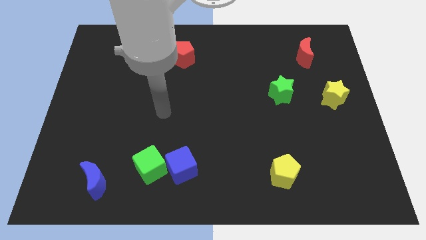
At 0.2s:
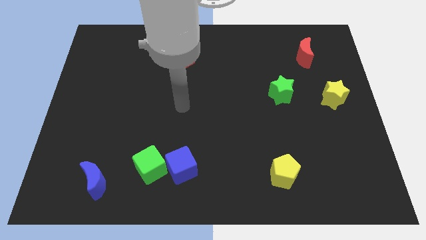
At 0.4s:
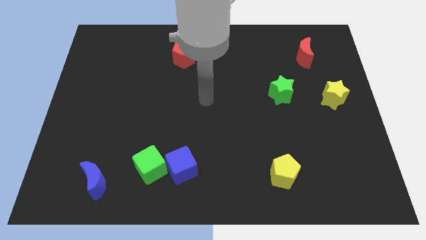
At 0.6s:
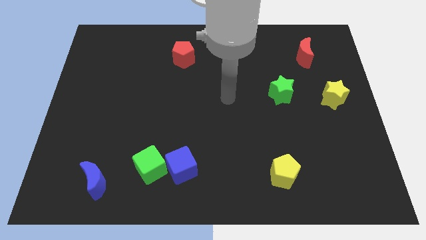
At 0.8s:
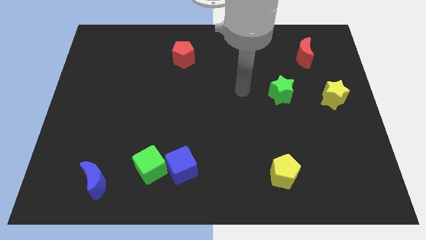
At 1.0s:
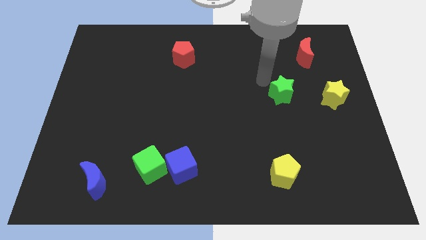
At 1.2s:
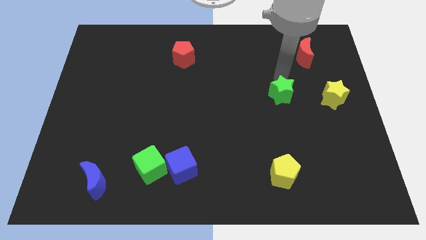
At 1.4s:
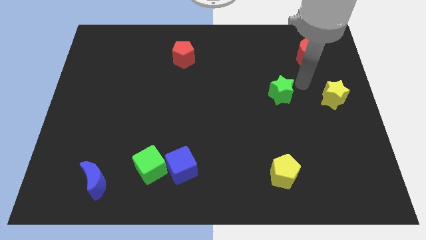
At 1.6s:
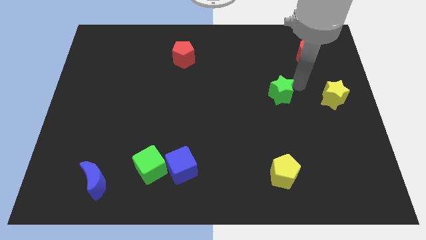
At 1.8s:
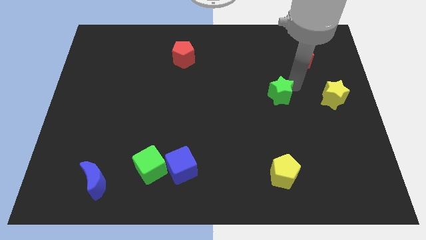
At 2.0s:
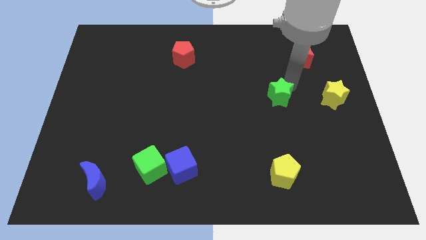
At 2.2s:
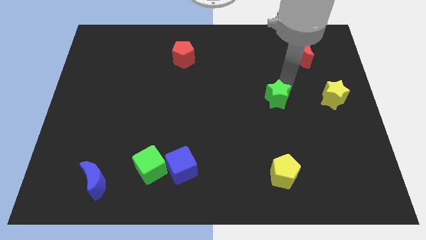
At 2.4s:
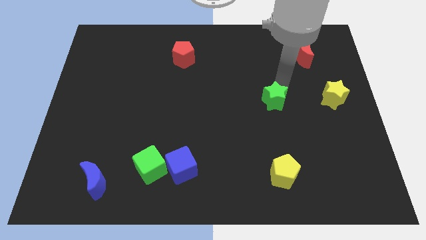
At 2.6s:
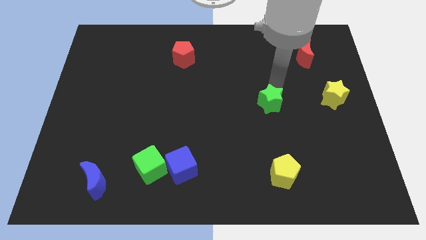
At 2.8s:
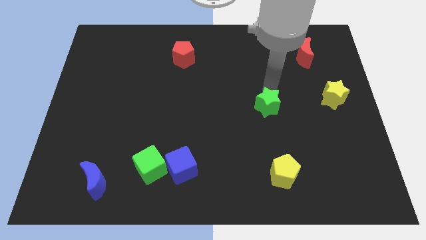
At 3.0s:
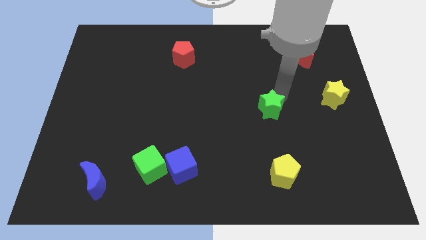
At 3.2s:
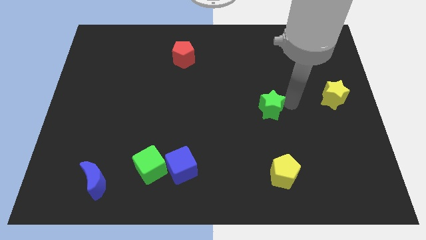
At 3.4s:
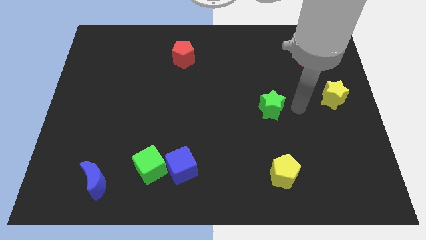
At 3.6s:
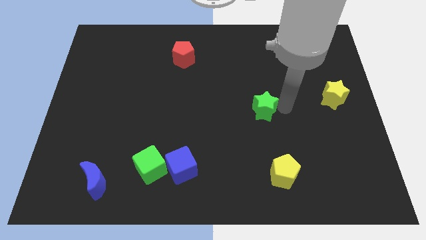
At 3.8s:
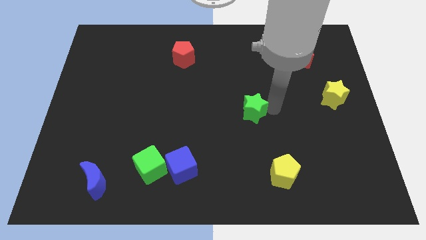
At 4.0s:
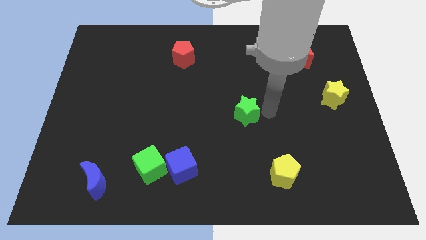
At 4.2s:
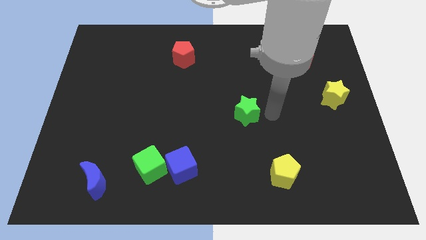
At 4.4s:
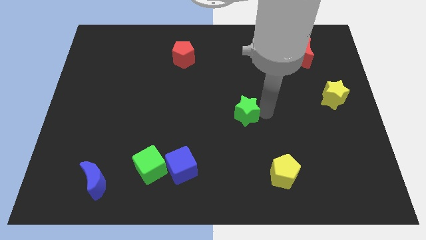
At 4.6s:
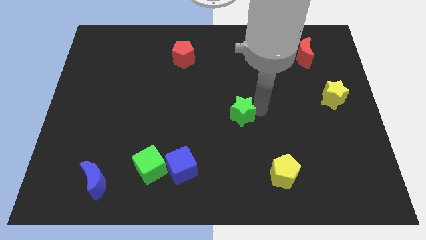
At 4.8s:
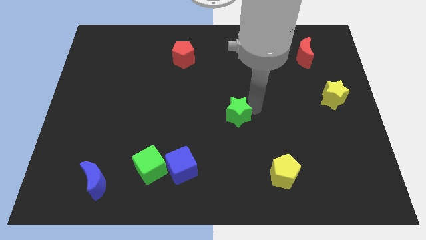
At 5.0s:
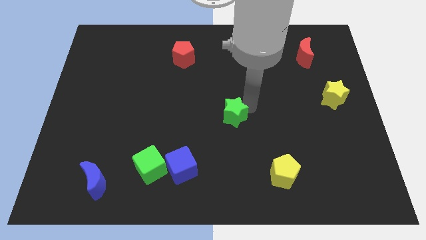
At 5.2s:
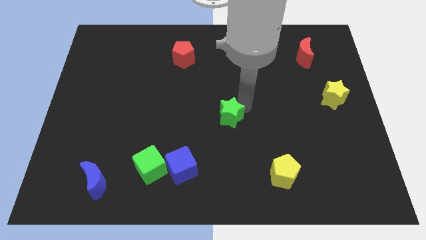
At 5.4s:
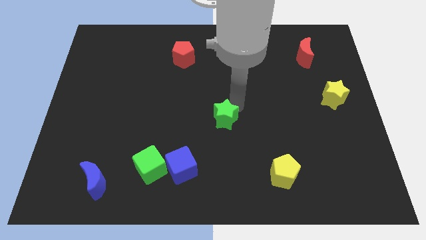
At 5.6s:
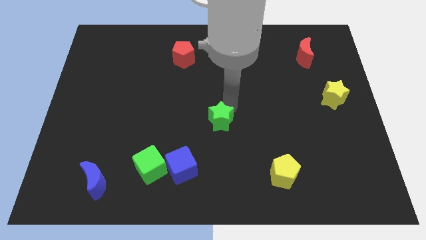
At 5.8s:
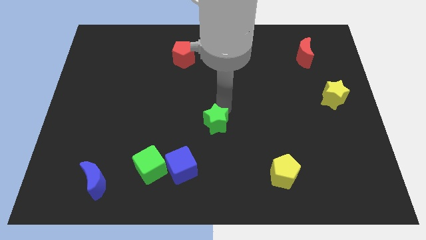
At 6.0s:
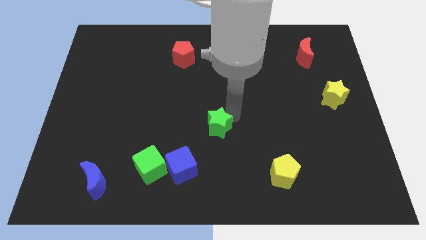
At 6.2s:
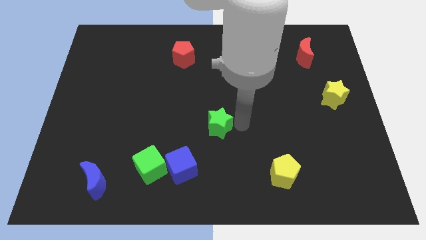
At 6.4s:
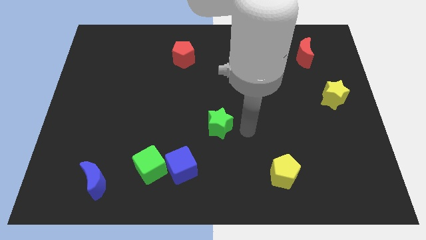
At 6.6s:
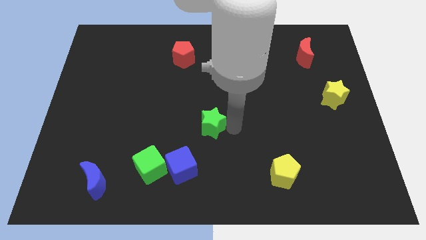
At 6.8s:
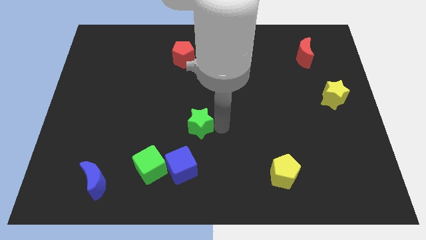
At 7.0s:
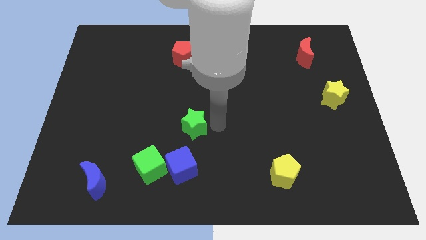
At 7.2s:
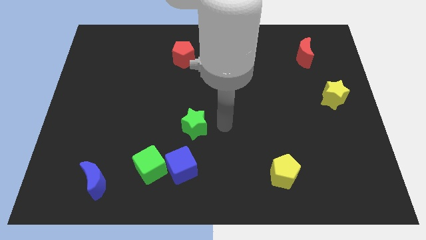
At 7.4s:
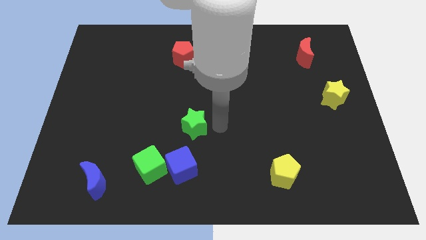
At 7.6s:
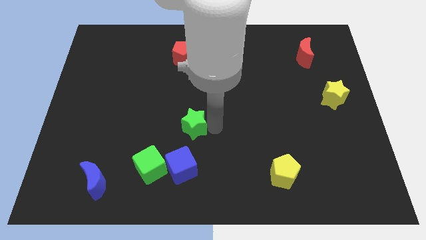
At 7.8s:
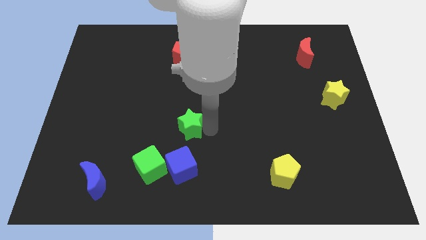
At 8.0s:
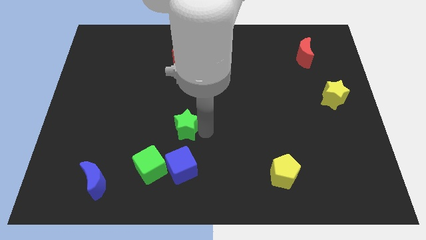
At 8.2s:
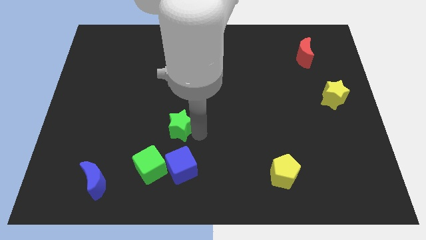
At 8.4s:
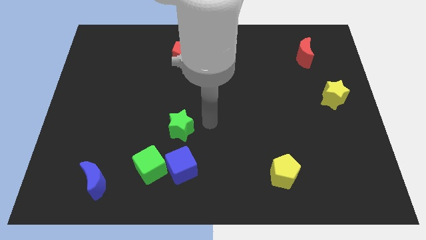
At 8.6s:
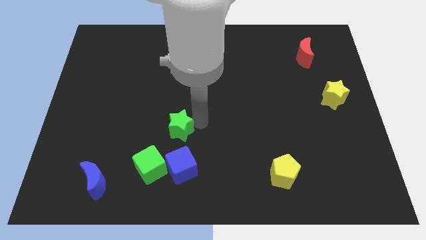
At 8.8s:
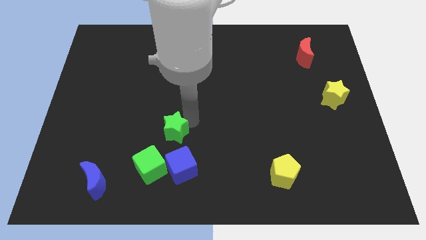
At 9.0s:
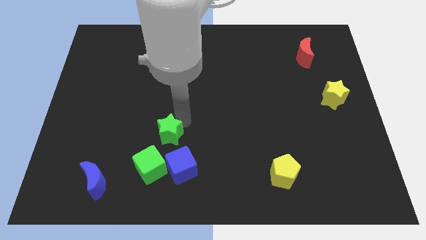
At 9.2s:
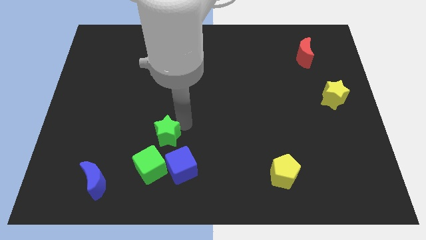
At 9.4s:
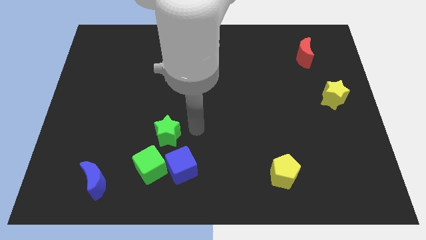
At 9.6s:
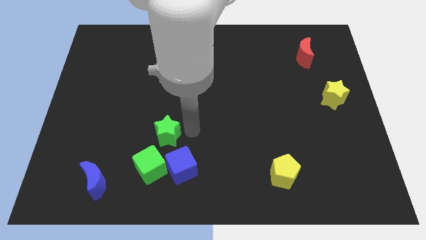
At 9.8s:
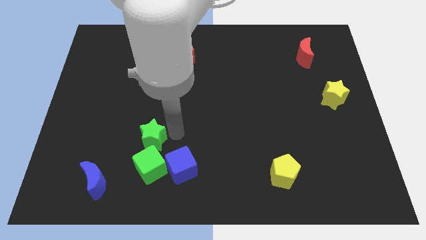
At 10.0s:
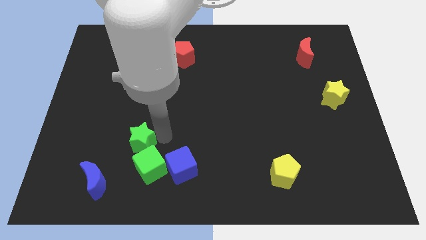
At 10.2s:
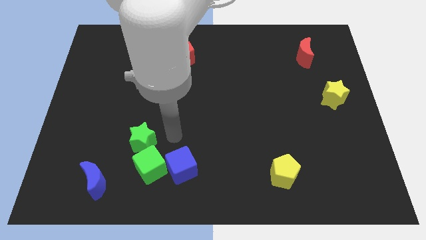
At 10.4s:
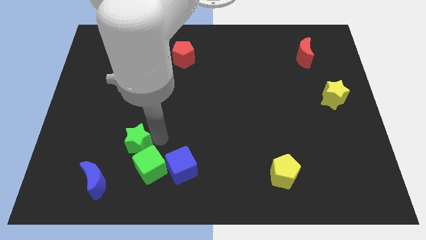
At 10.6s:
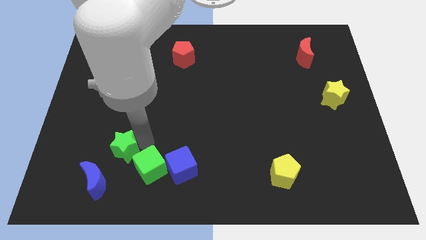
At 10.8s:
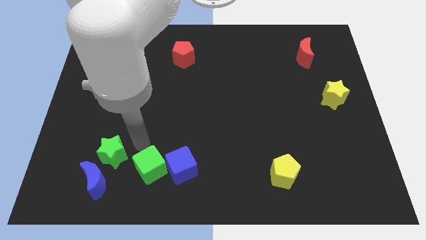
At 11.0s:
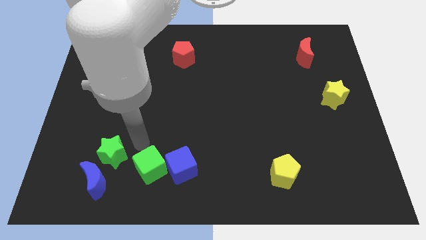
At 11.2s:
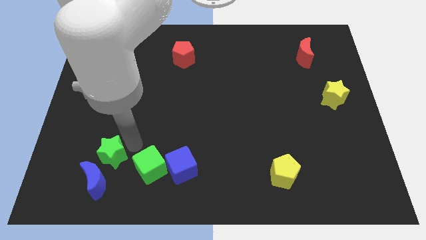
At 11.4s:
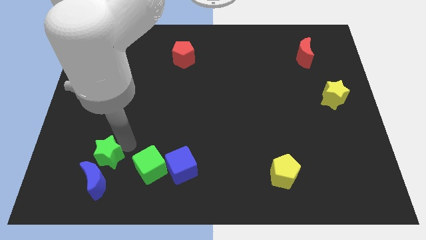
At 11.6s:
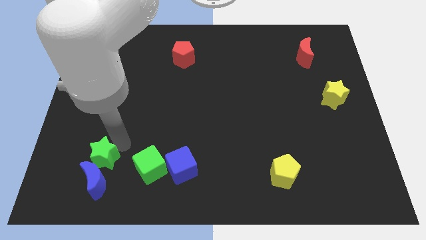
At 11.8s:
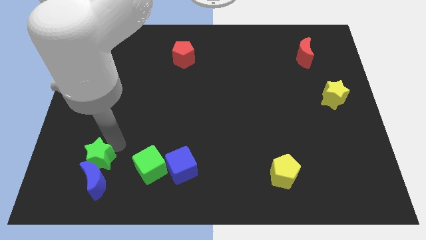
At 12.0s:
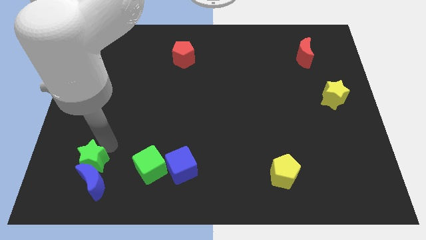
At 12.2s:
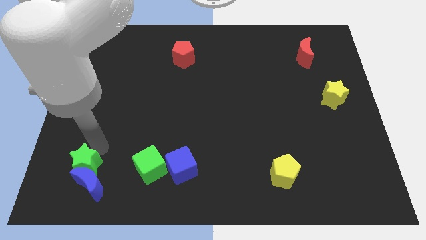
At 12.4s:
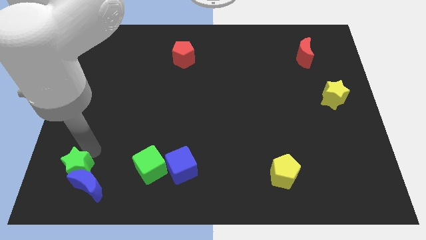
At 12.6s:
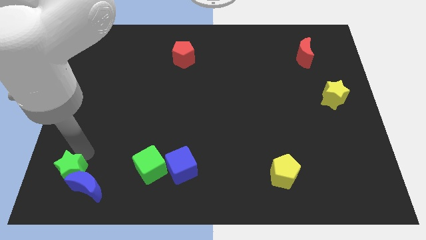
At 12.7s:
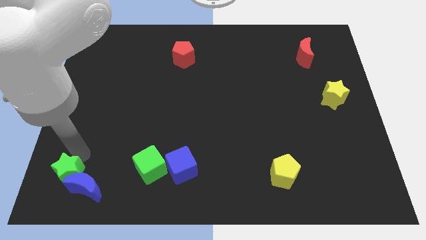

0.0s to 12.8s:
push the green star to the bottom left corner
